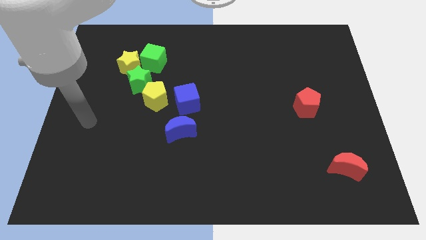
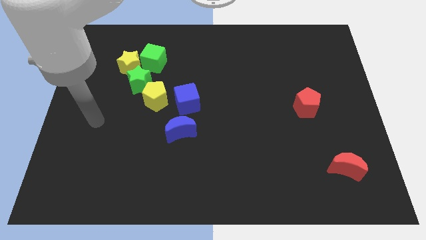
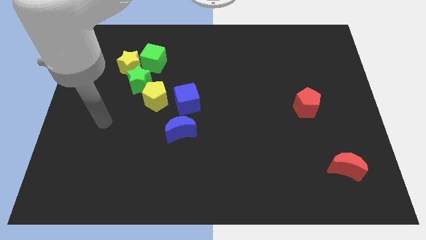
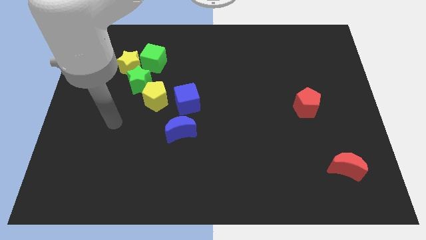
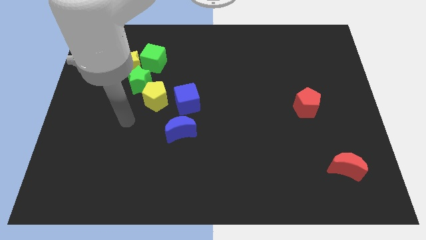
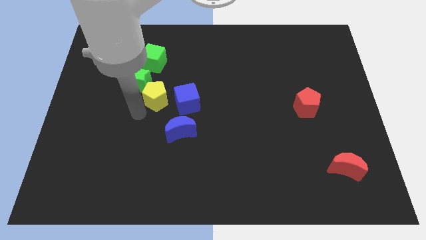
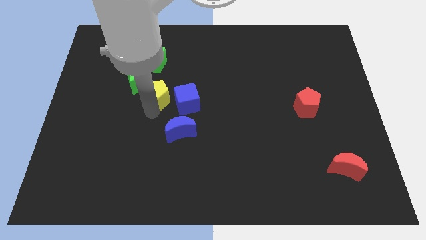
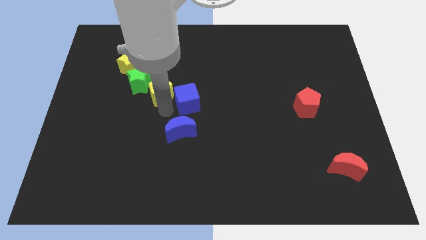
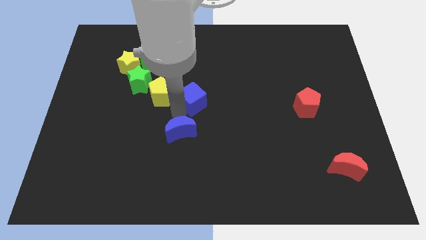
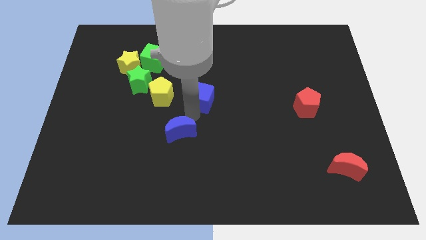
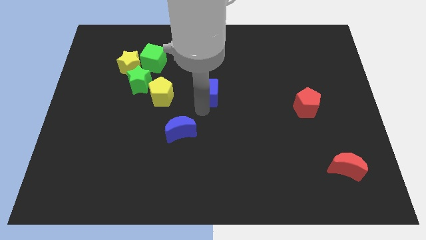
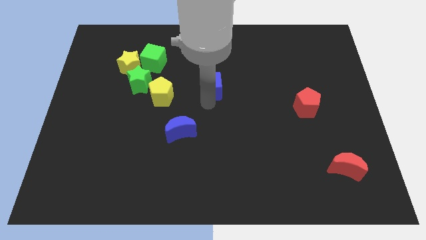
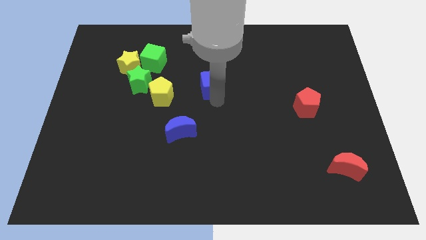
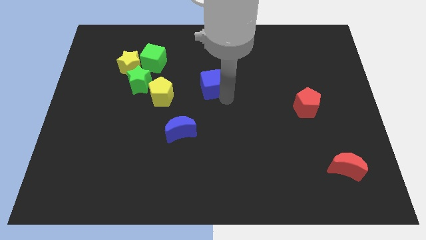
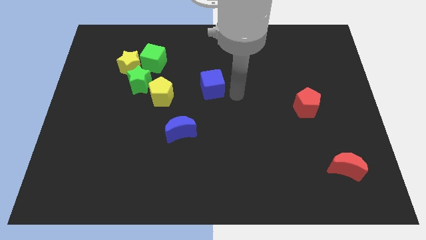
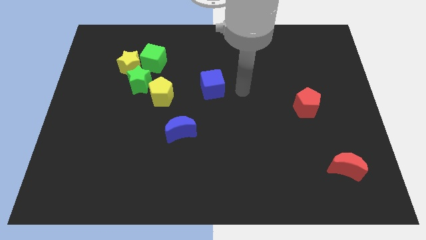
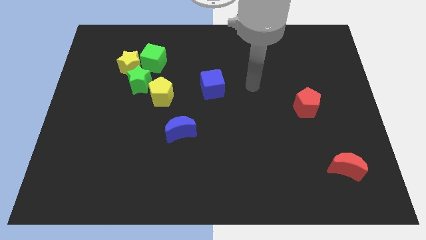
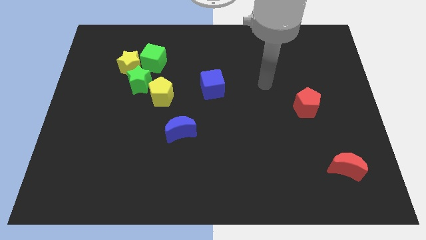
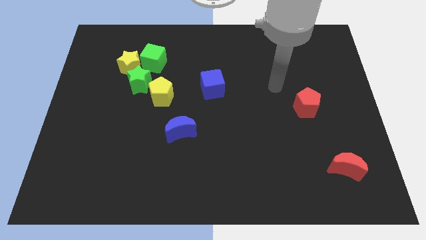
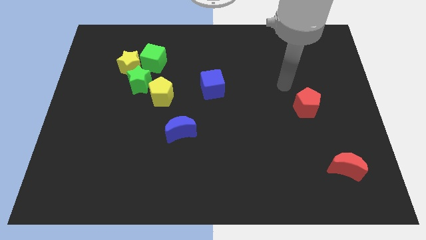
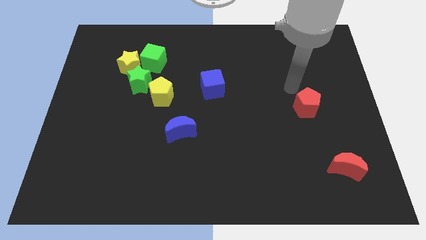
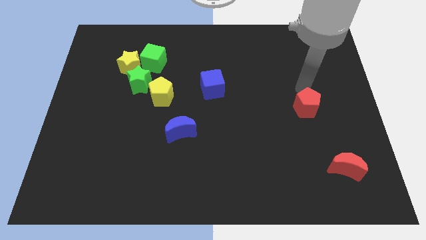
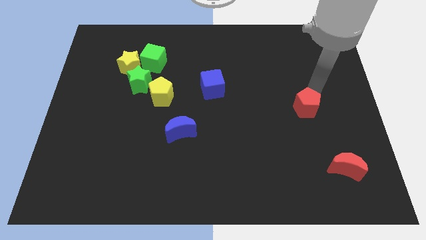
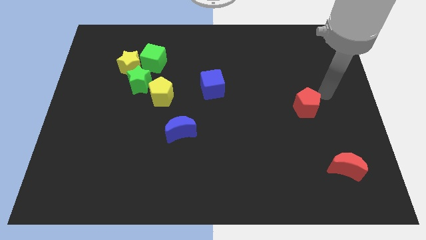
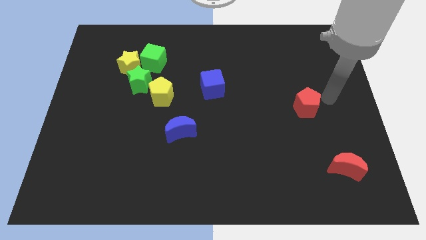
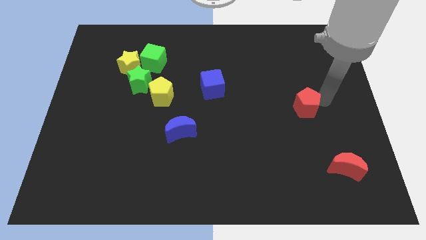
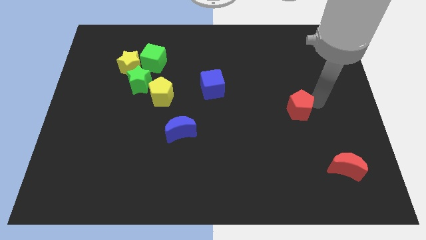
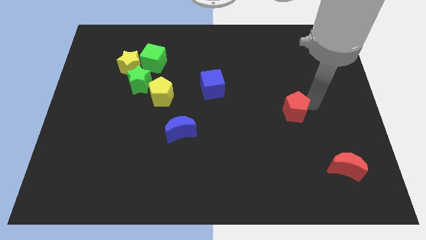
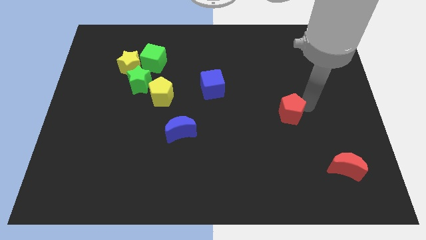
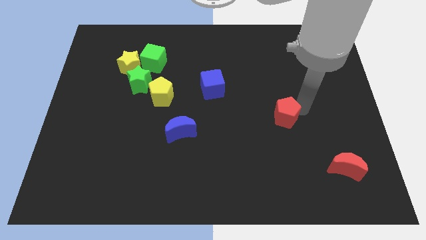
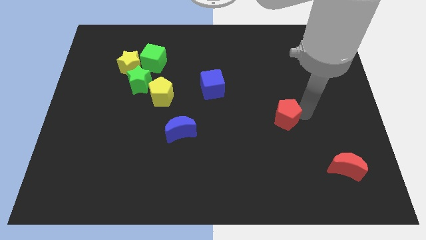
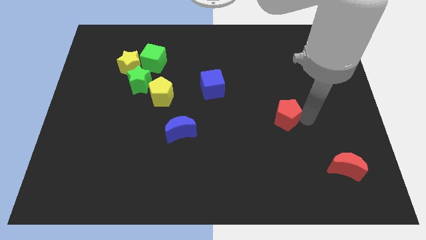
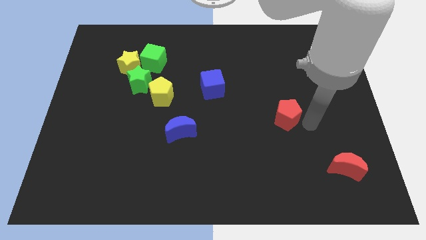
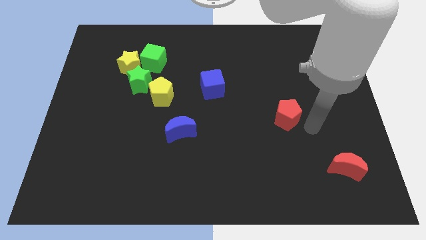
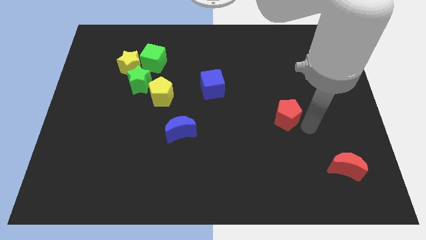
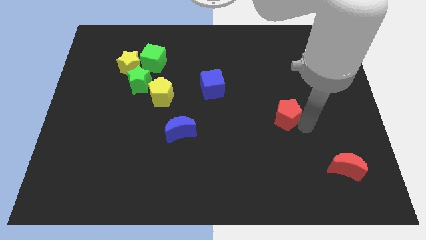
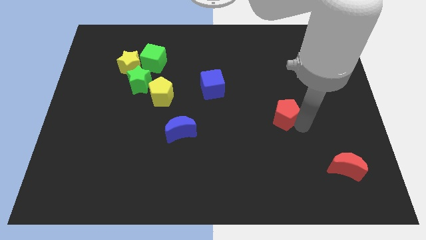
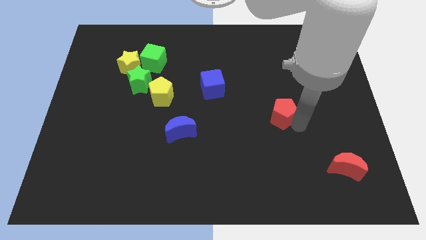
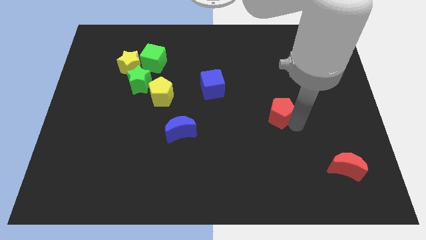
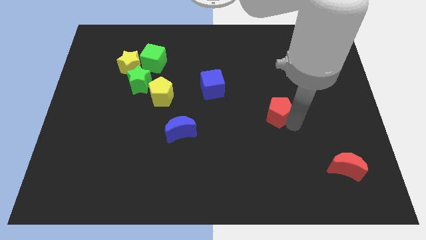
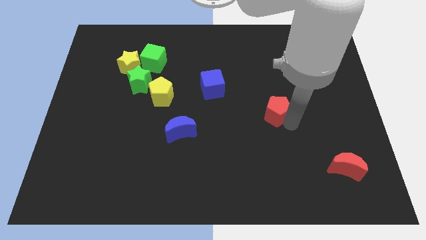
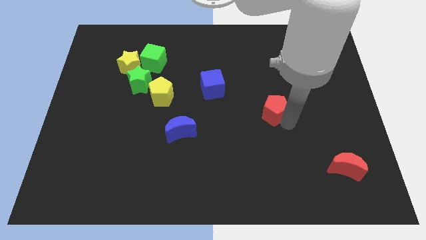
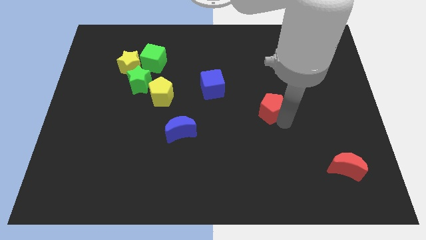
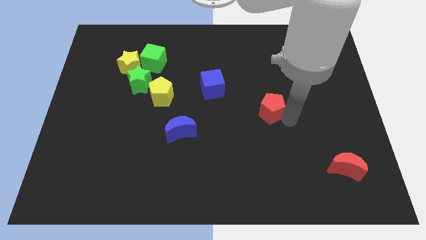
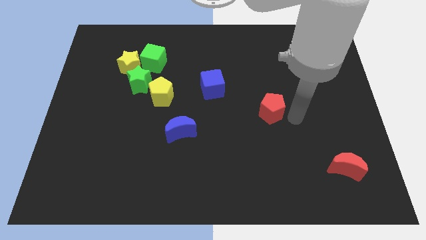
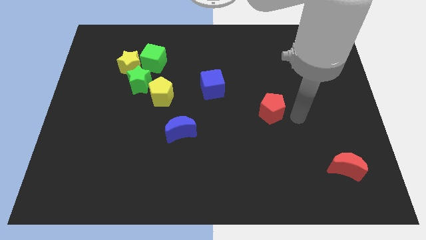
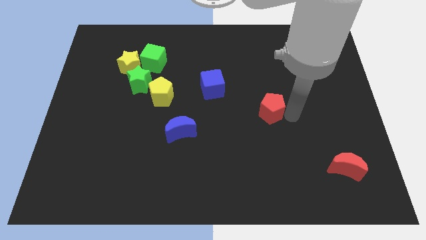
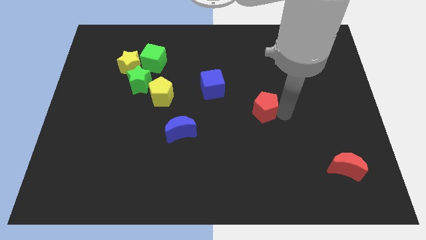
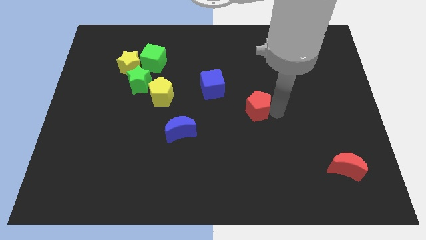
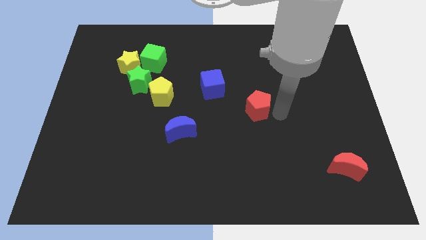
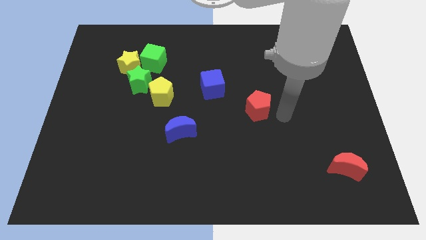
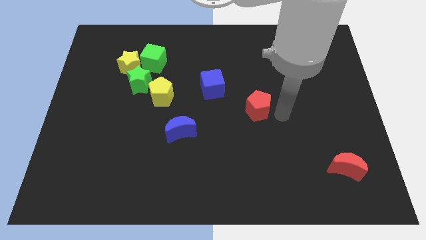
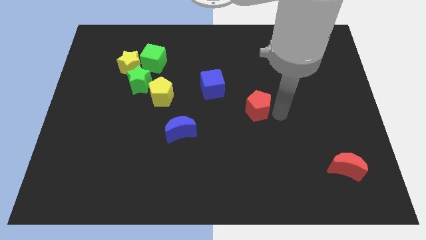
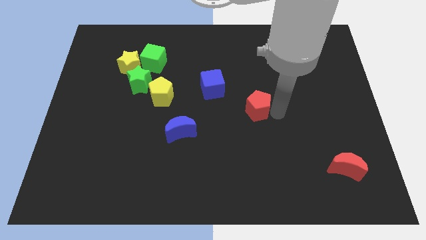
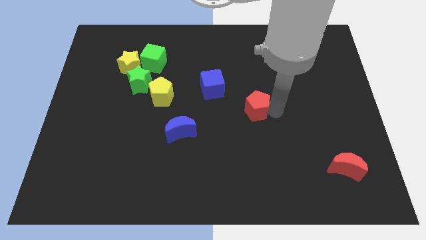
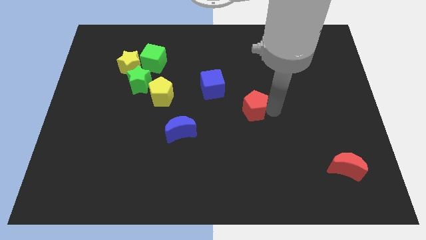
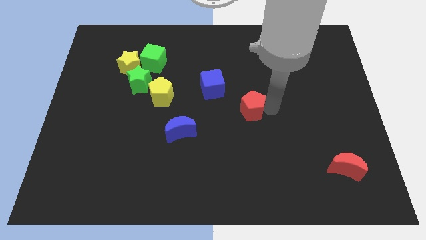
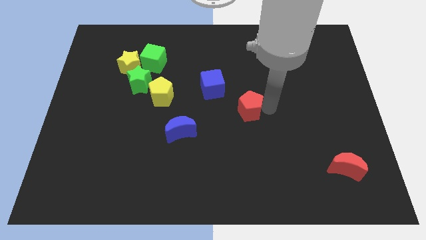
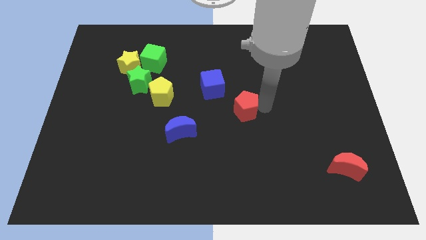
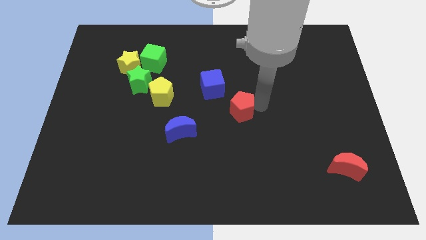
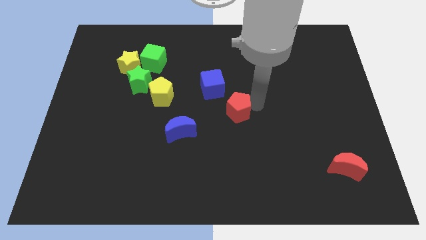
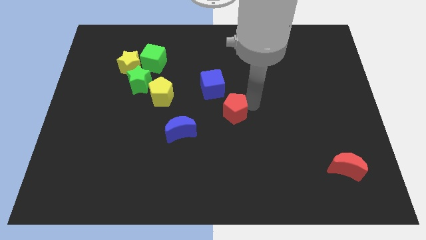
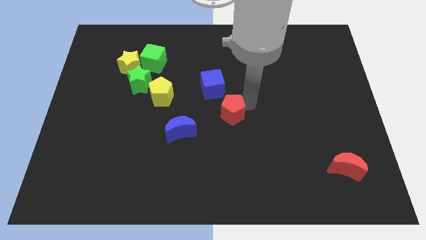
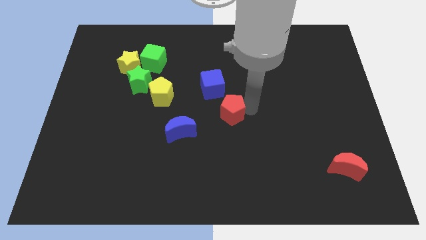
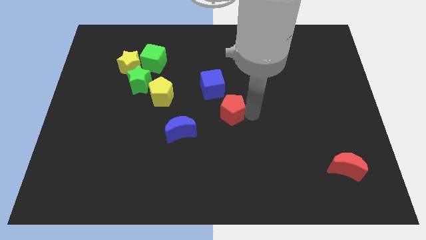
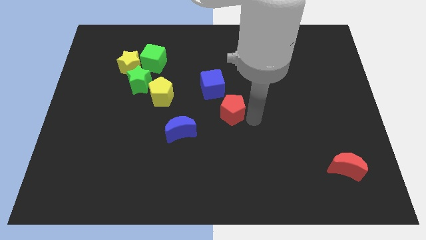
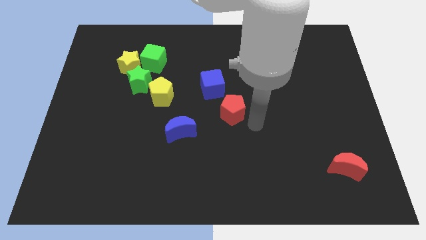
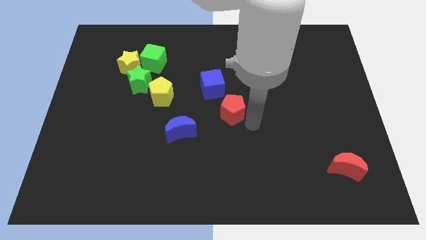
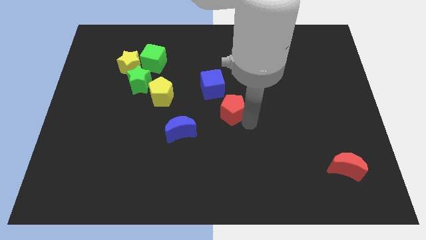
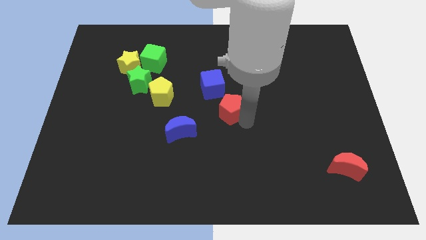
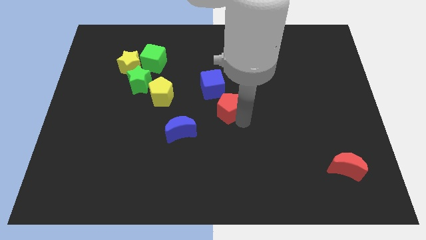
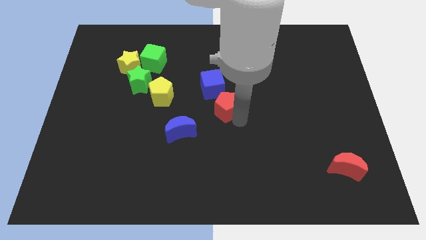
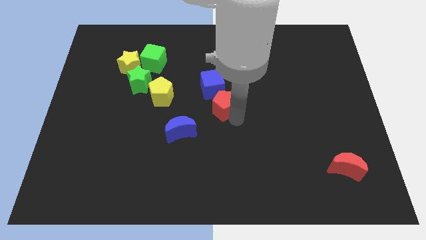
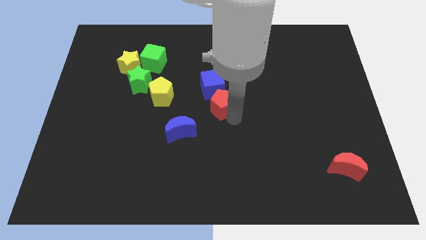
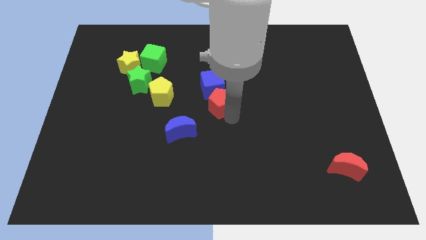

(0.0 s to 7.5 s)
push the red pentagon towards the blue cube

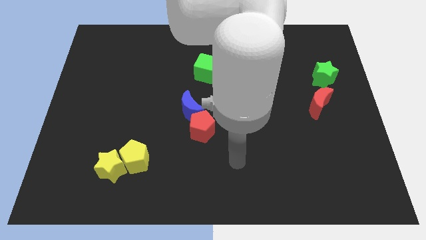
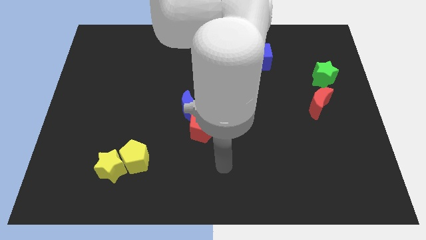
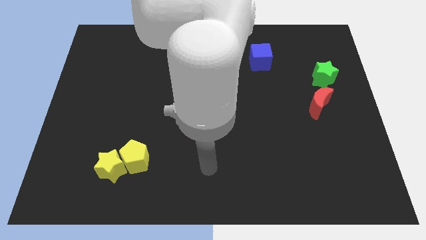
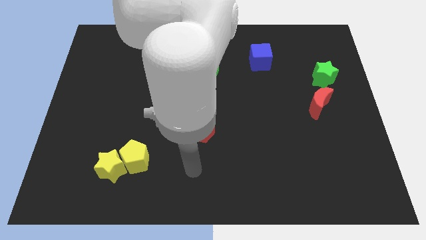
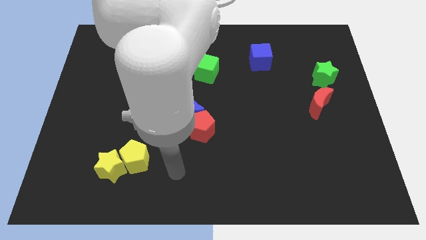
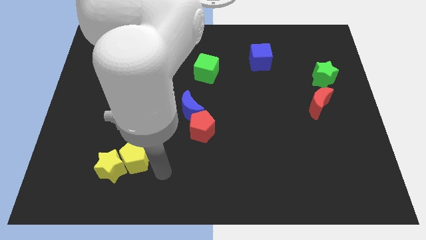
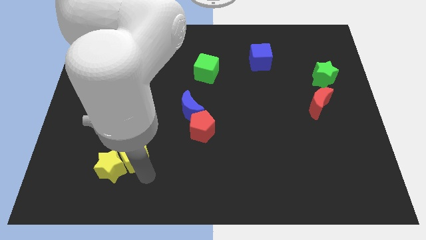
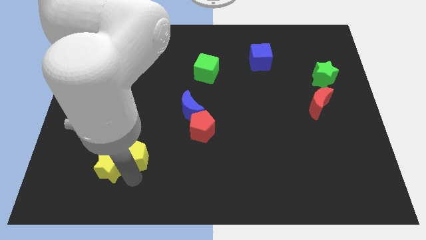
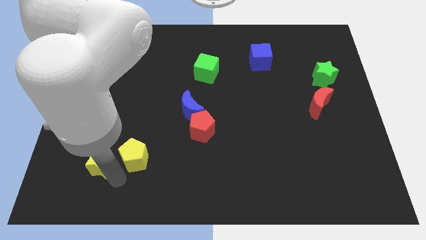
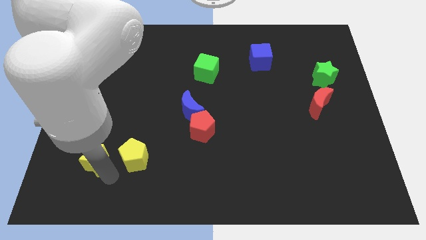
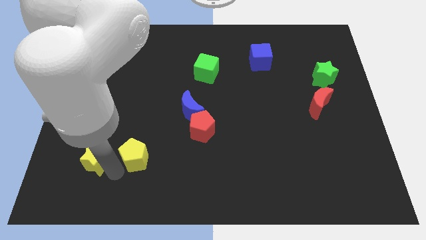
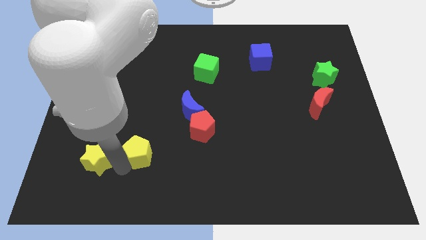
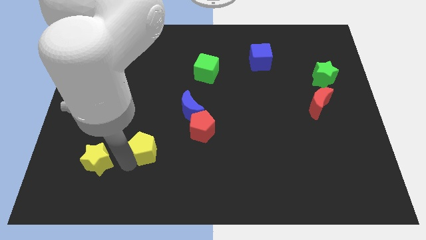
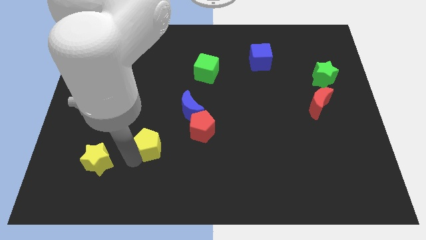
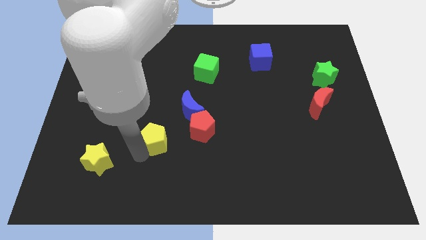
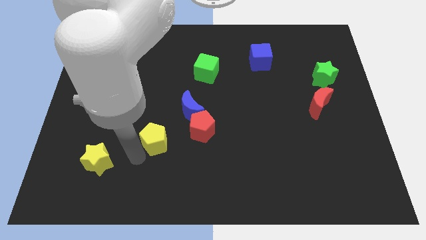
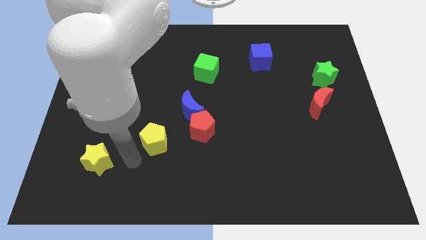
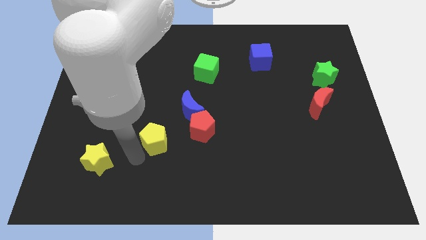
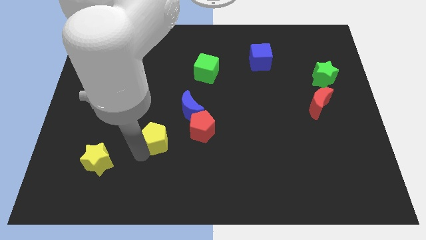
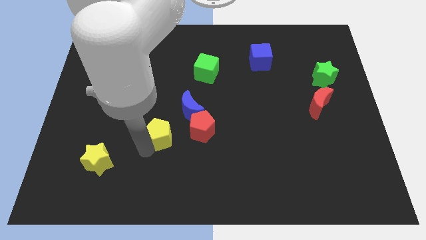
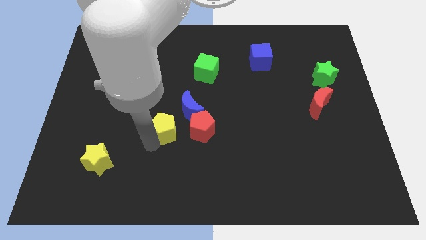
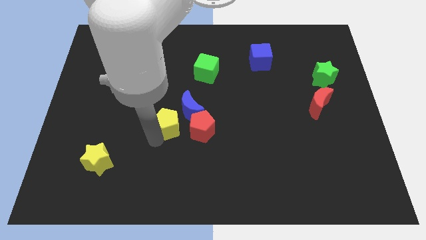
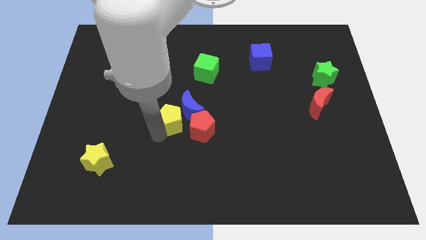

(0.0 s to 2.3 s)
slide the yellow pentagon to the blue moon
